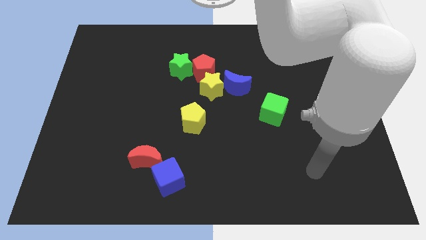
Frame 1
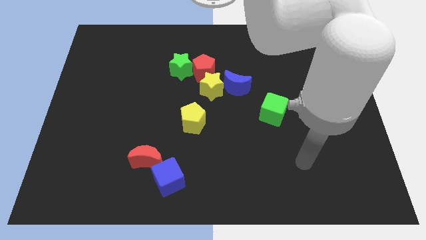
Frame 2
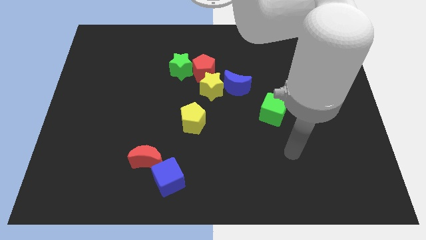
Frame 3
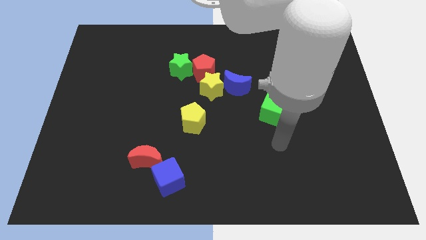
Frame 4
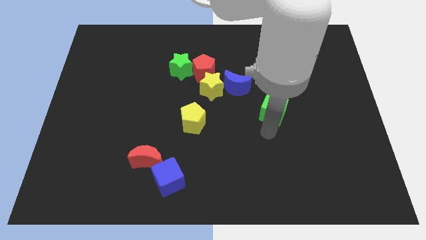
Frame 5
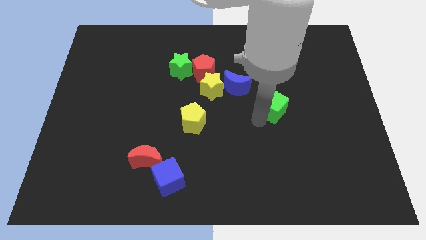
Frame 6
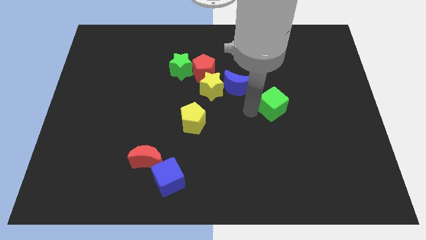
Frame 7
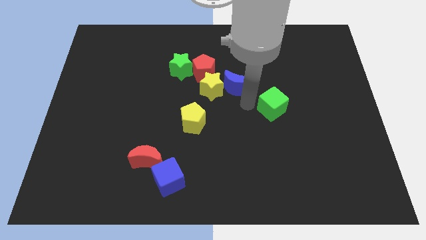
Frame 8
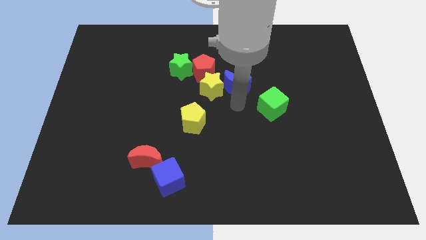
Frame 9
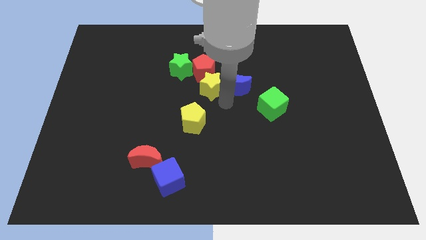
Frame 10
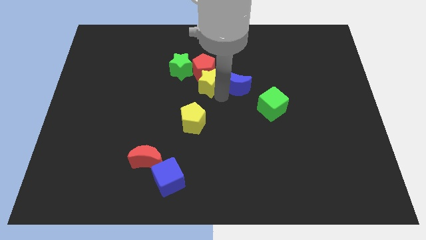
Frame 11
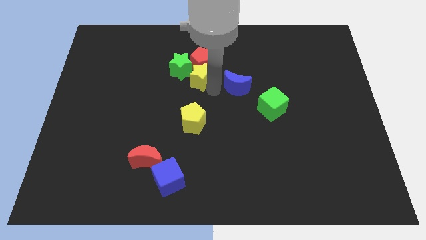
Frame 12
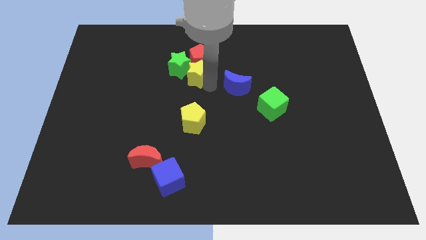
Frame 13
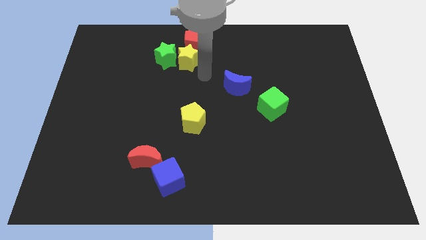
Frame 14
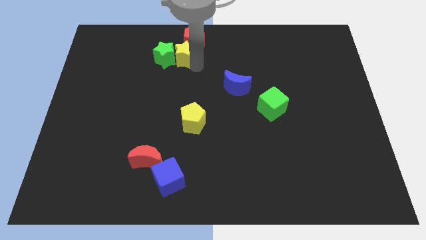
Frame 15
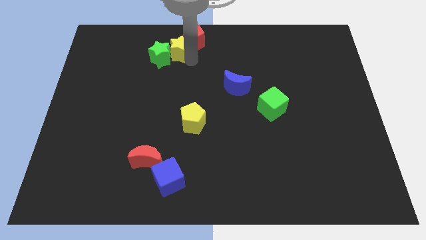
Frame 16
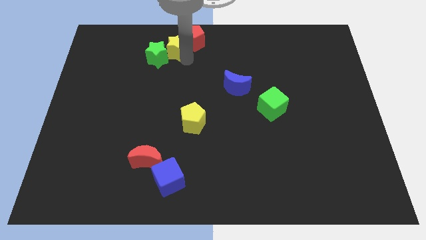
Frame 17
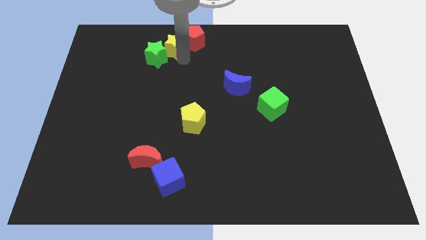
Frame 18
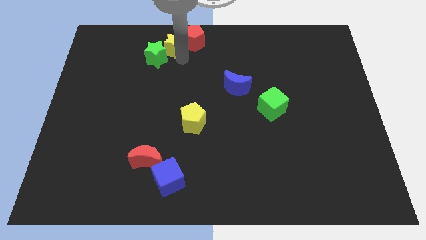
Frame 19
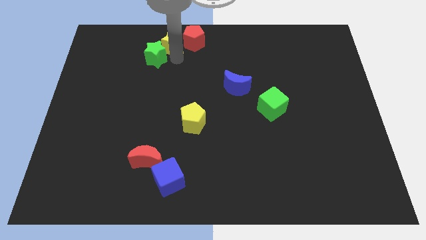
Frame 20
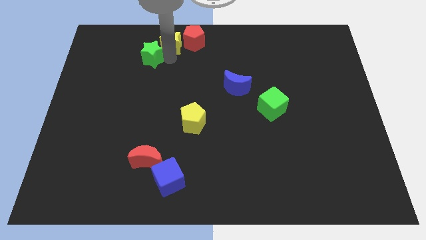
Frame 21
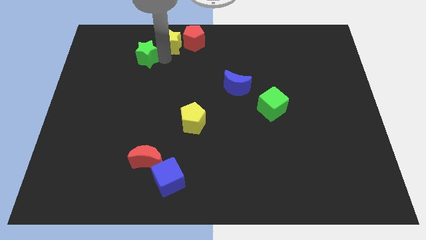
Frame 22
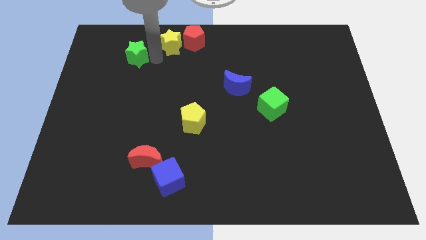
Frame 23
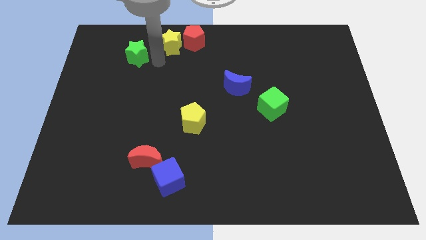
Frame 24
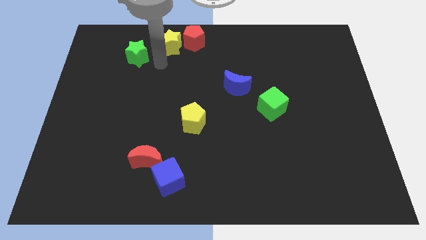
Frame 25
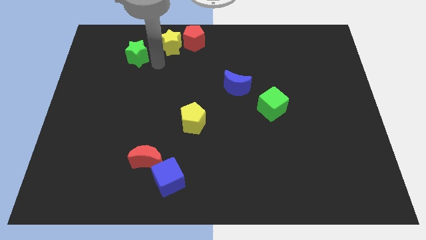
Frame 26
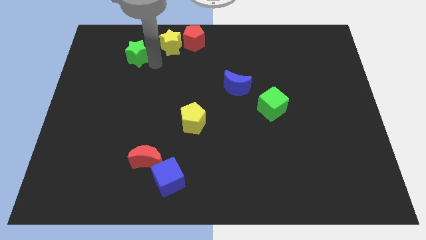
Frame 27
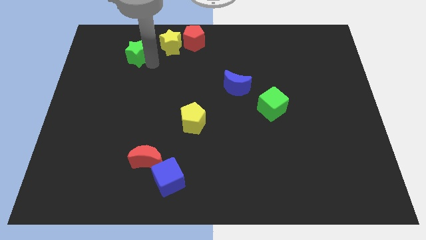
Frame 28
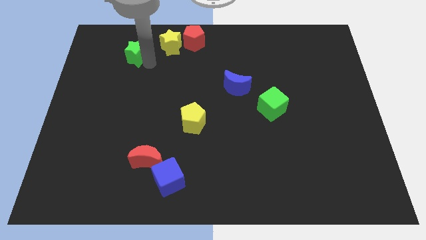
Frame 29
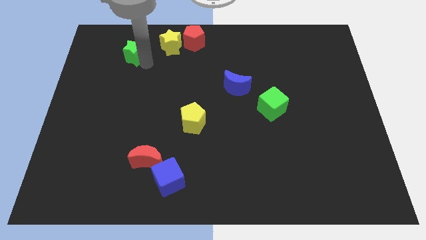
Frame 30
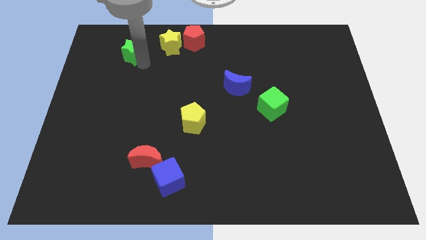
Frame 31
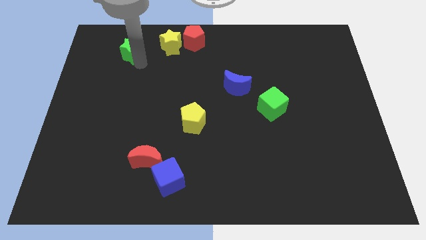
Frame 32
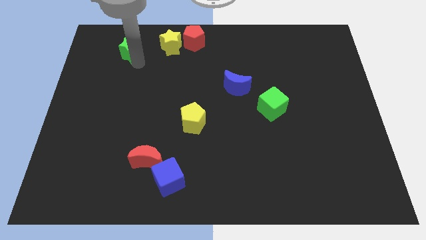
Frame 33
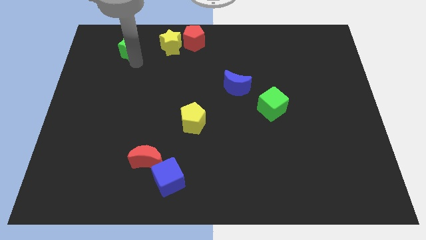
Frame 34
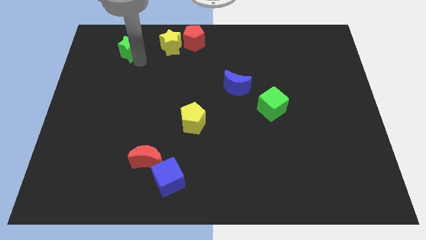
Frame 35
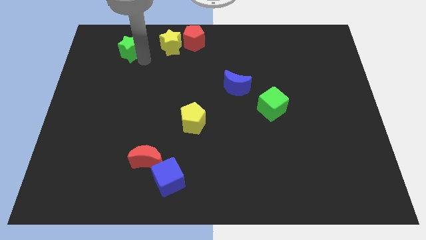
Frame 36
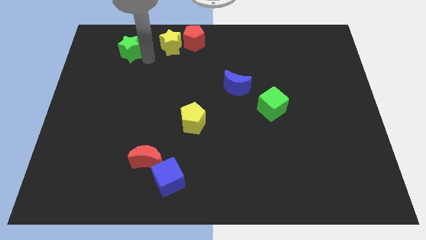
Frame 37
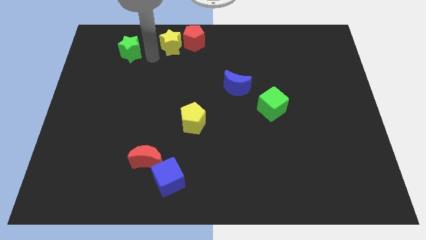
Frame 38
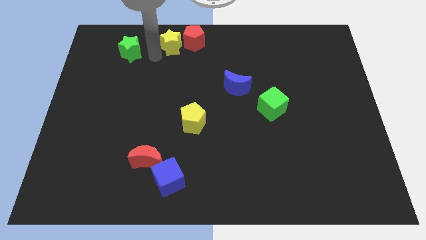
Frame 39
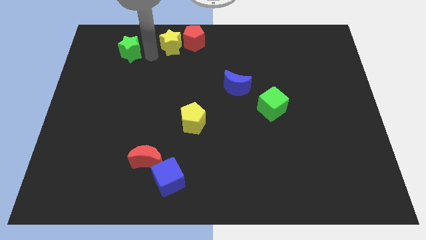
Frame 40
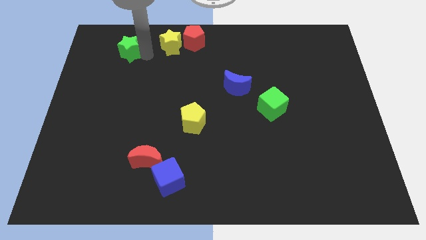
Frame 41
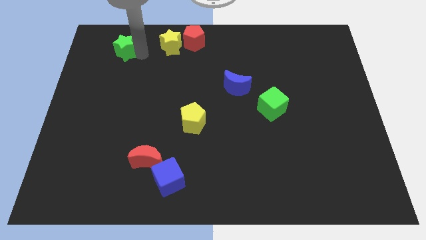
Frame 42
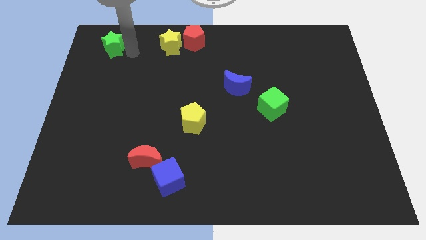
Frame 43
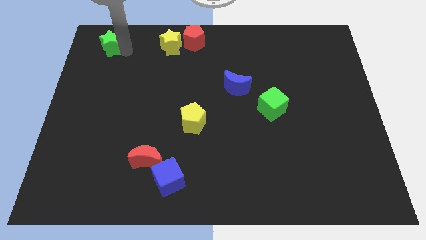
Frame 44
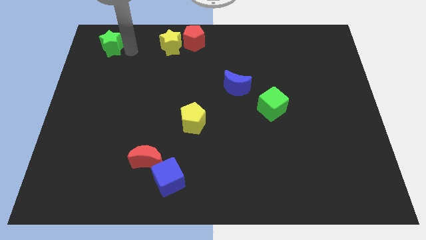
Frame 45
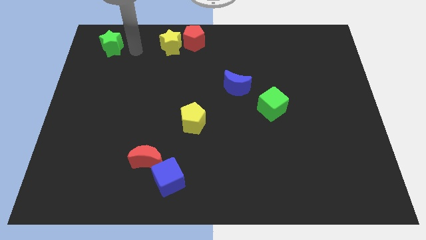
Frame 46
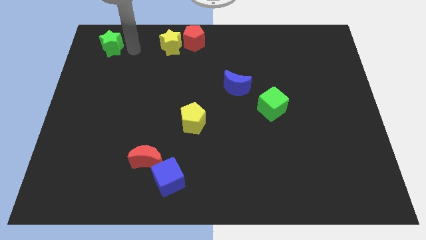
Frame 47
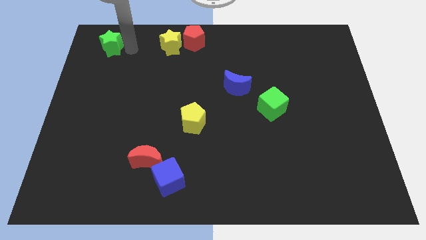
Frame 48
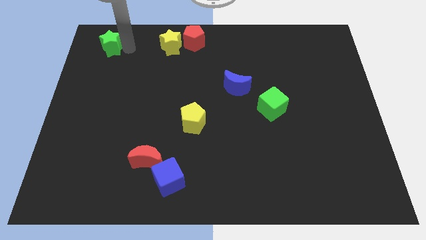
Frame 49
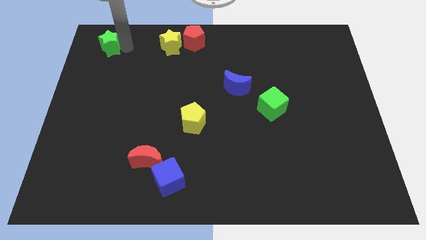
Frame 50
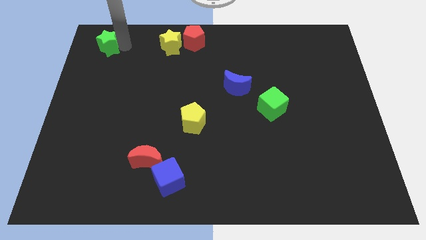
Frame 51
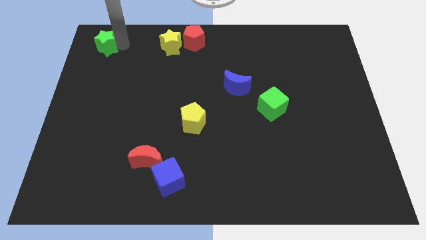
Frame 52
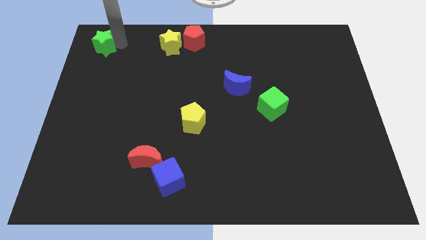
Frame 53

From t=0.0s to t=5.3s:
move the green star to the top left of the board

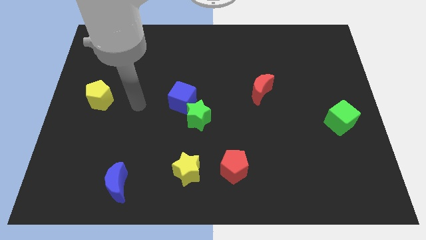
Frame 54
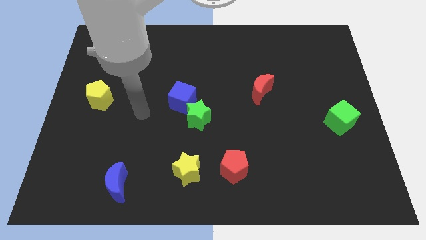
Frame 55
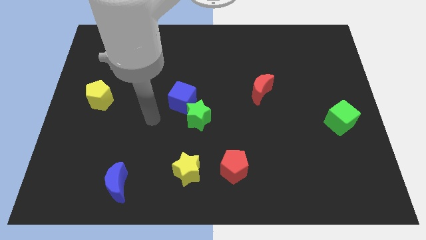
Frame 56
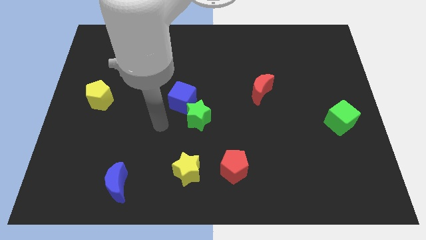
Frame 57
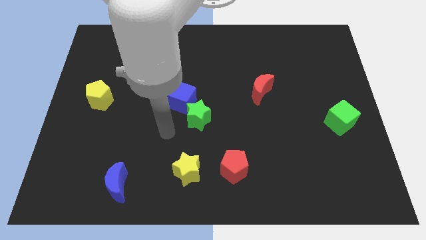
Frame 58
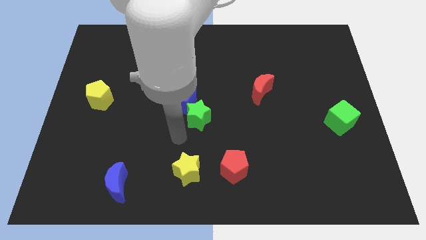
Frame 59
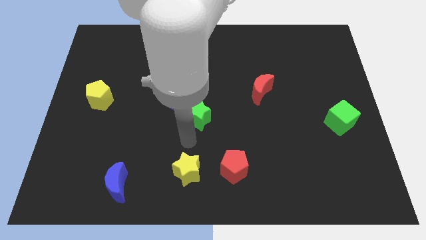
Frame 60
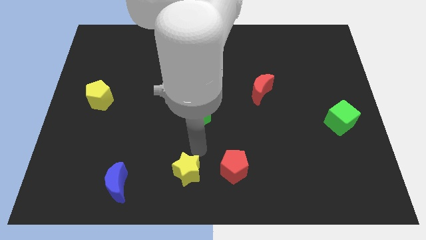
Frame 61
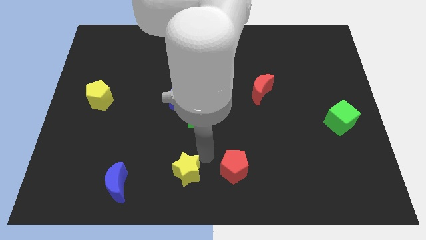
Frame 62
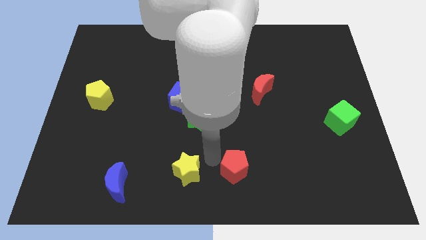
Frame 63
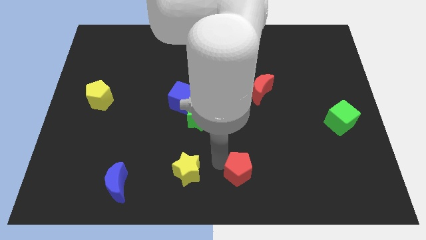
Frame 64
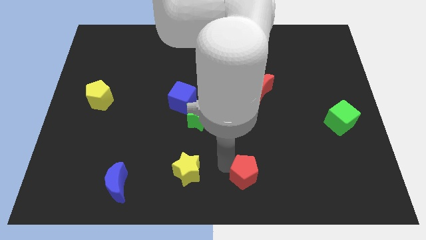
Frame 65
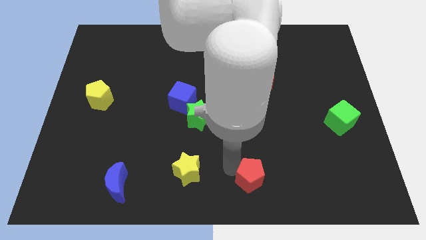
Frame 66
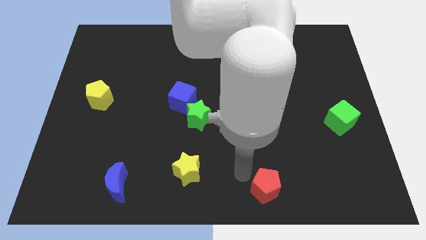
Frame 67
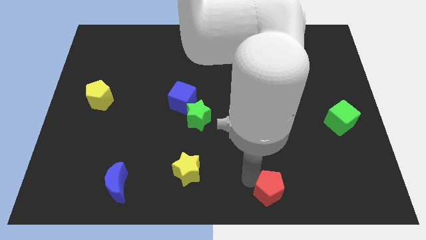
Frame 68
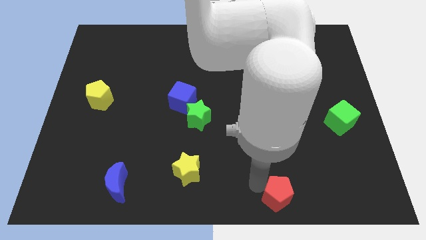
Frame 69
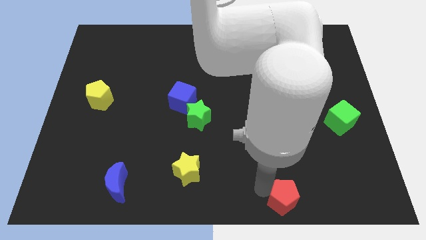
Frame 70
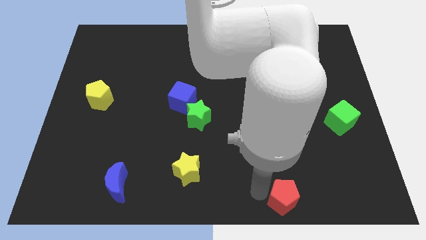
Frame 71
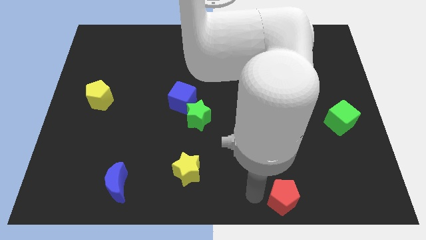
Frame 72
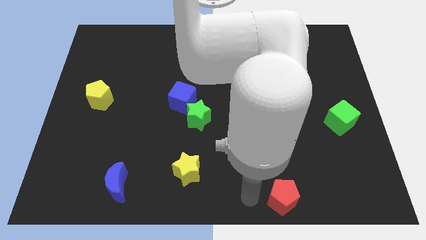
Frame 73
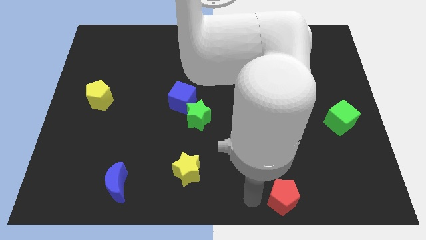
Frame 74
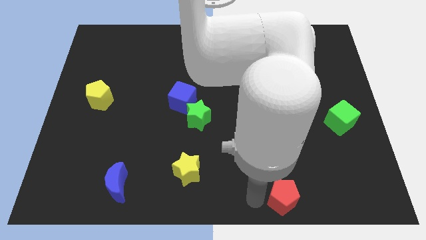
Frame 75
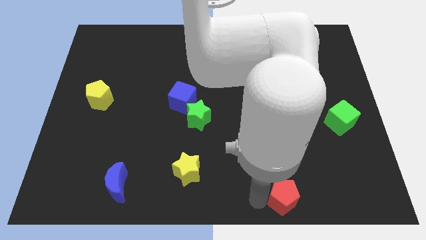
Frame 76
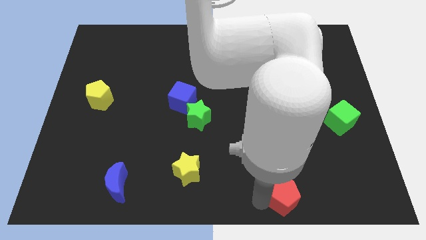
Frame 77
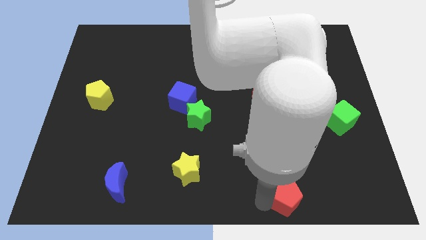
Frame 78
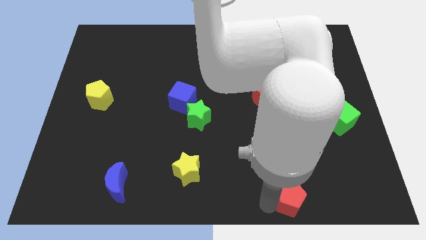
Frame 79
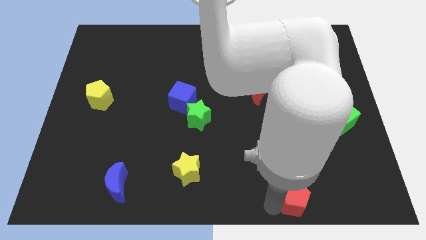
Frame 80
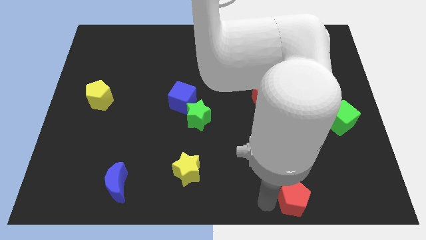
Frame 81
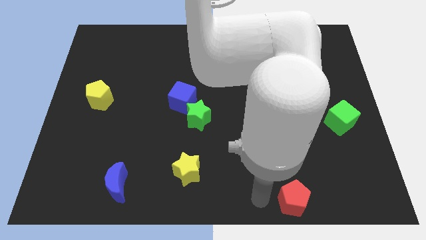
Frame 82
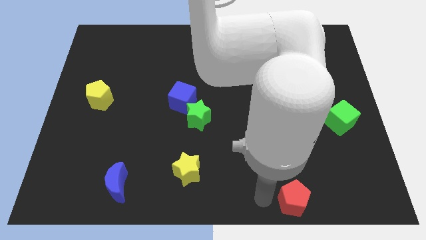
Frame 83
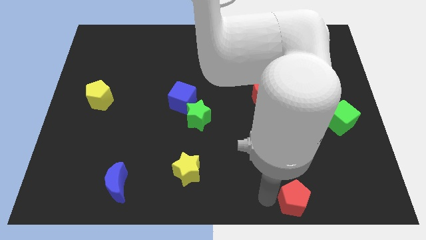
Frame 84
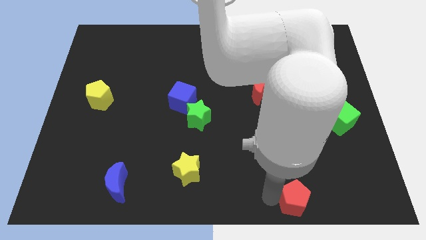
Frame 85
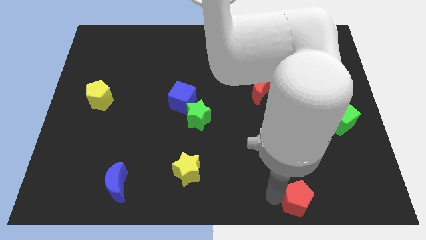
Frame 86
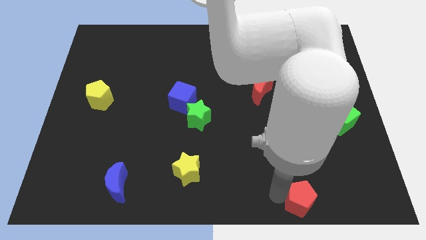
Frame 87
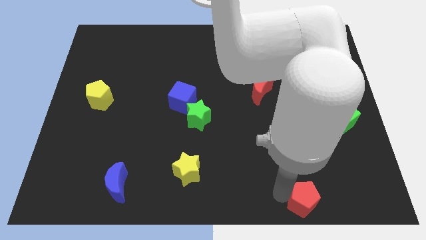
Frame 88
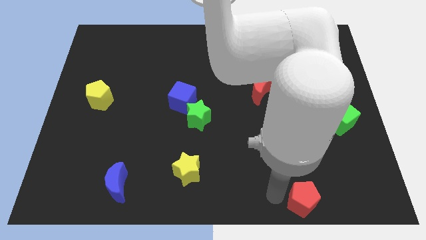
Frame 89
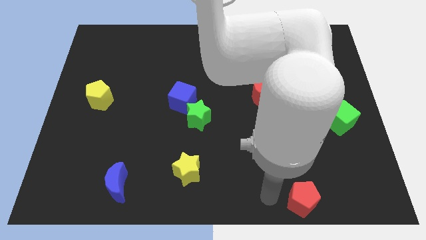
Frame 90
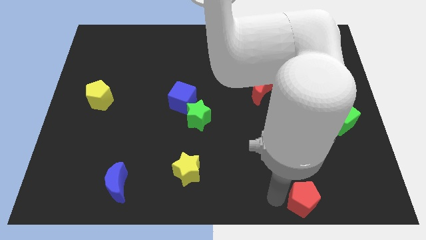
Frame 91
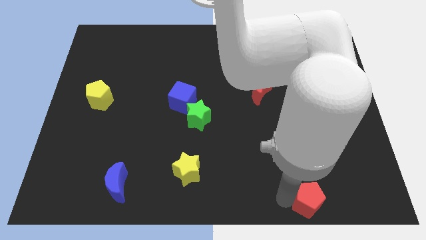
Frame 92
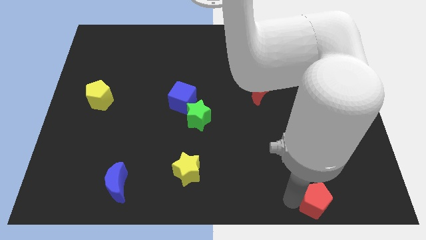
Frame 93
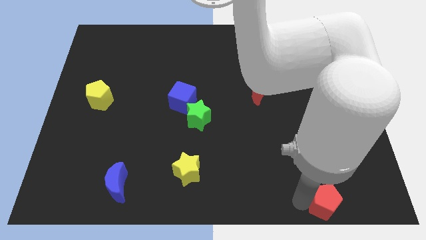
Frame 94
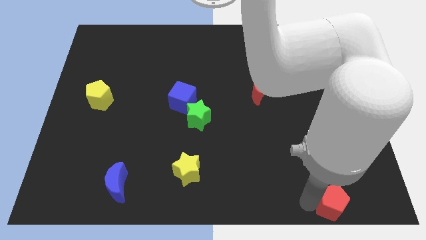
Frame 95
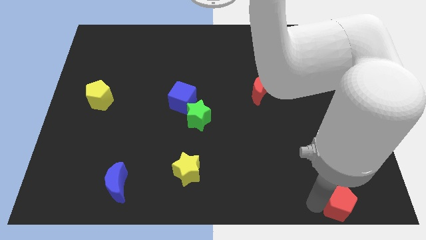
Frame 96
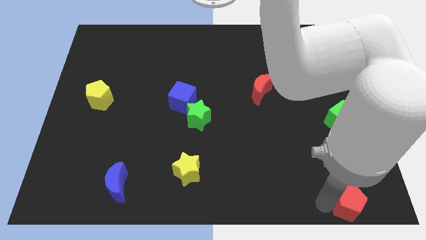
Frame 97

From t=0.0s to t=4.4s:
slide the red pentagon to the bottom right of the board
